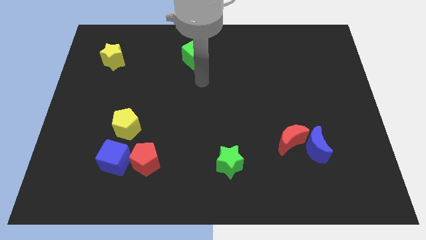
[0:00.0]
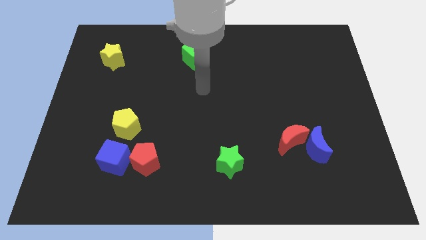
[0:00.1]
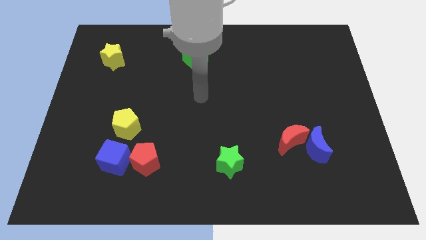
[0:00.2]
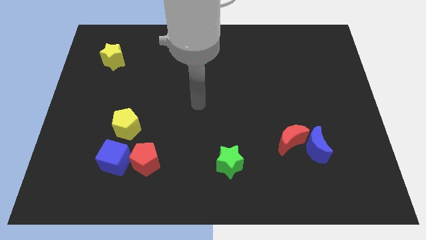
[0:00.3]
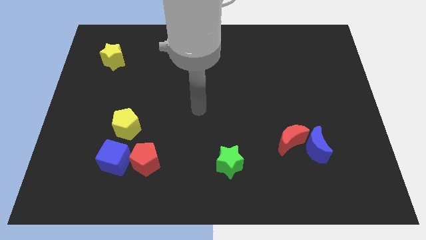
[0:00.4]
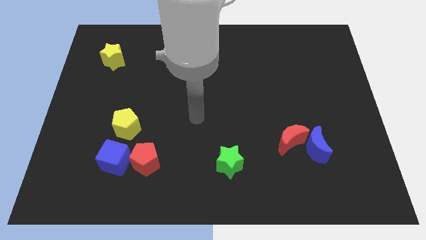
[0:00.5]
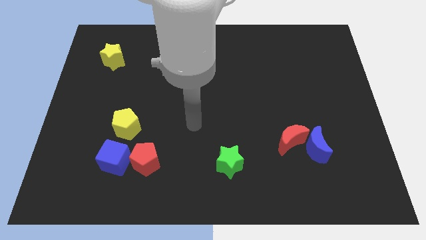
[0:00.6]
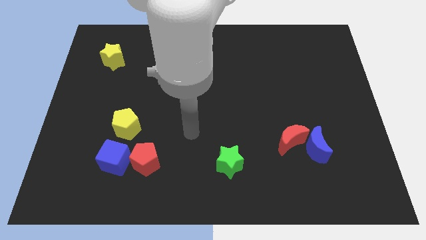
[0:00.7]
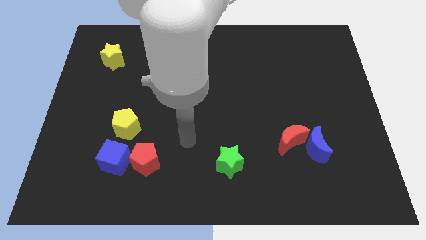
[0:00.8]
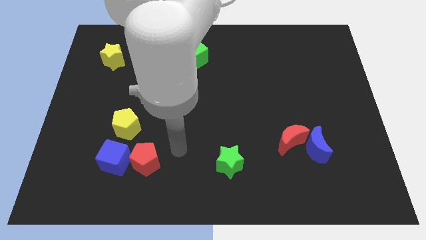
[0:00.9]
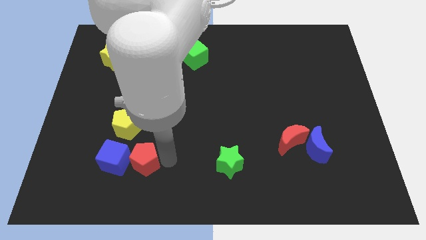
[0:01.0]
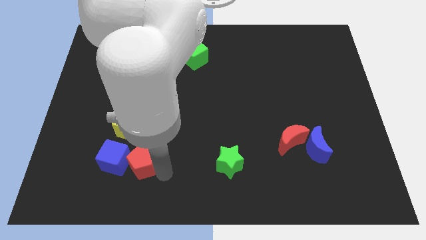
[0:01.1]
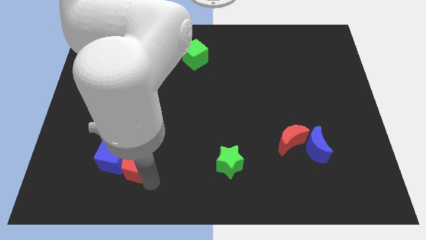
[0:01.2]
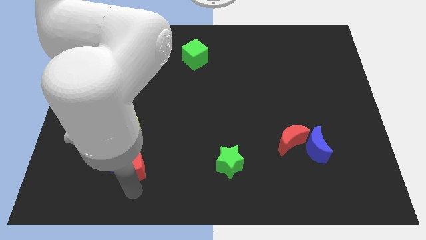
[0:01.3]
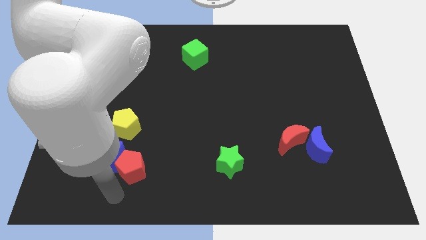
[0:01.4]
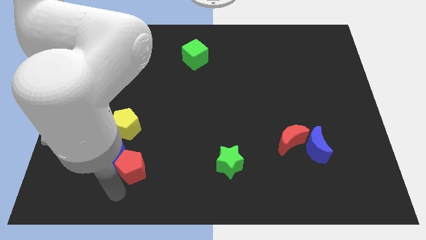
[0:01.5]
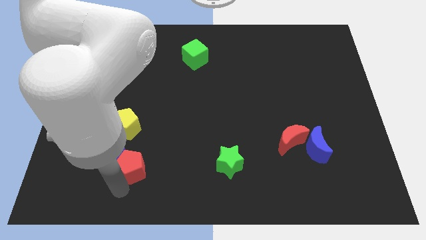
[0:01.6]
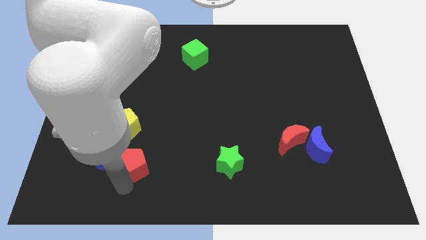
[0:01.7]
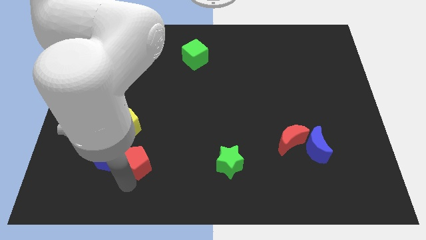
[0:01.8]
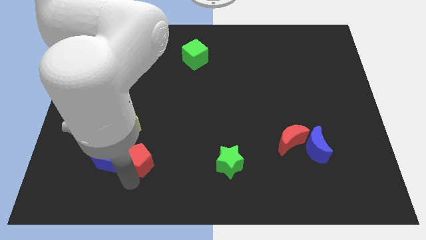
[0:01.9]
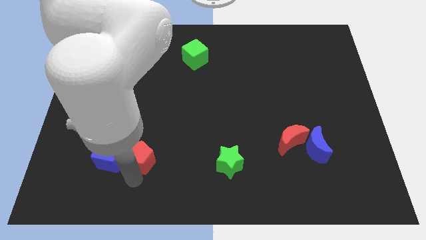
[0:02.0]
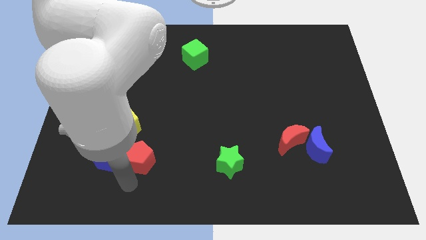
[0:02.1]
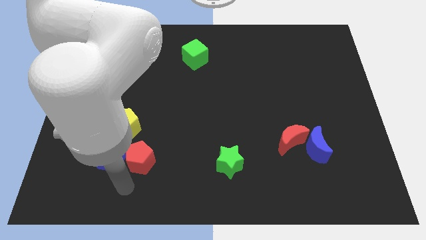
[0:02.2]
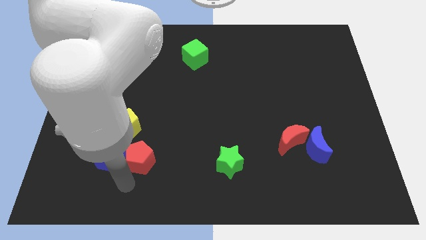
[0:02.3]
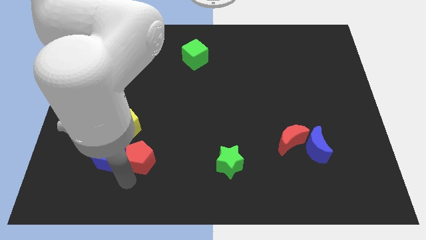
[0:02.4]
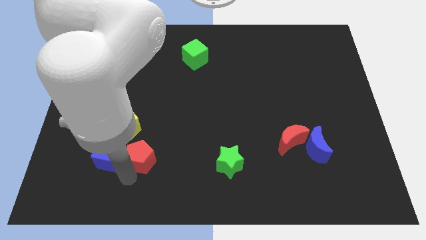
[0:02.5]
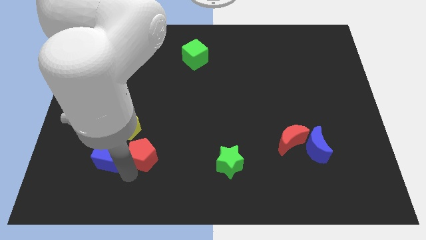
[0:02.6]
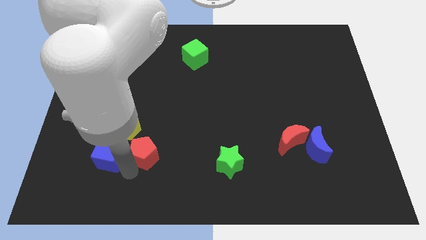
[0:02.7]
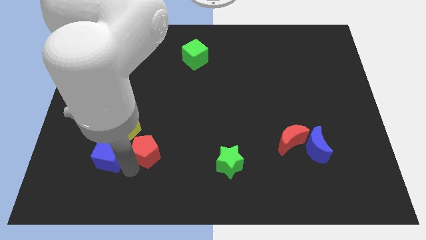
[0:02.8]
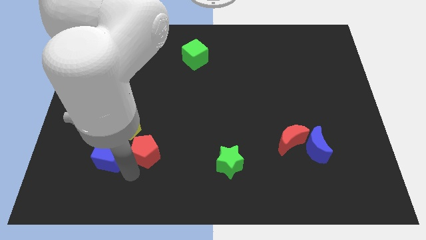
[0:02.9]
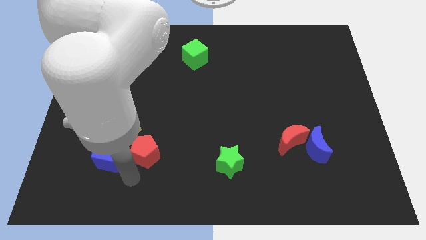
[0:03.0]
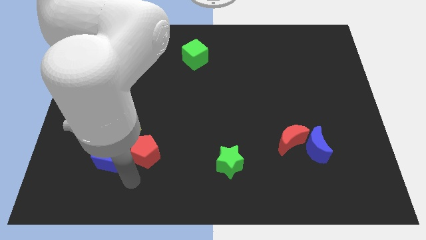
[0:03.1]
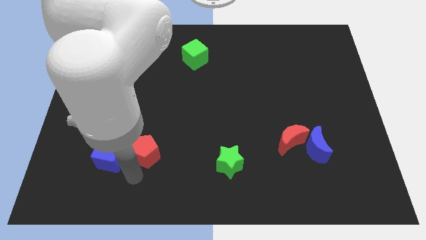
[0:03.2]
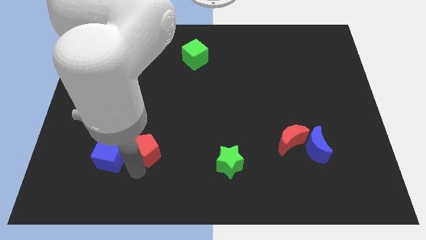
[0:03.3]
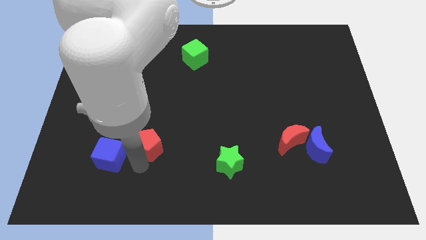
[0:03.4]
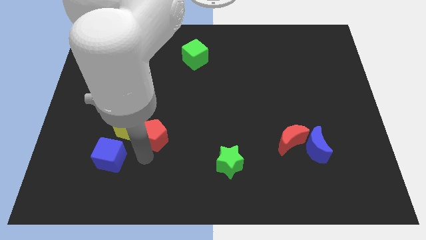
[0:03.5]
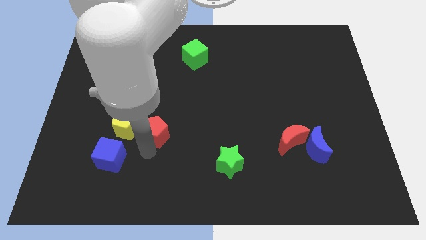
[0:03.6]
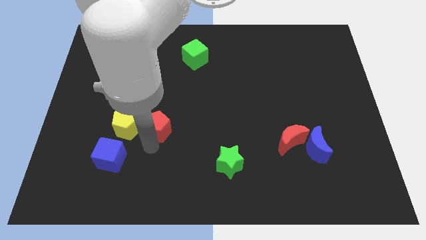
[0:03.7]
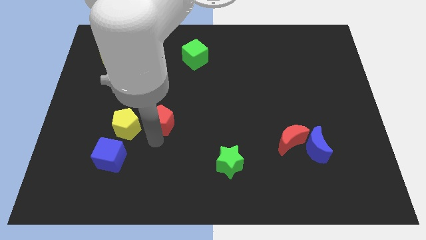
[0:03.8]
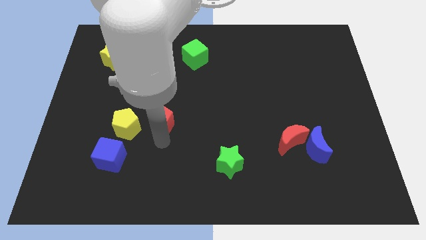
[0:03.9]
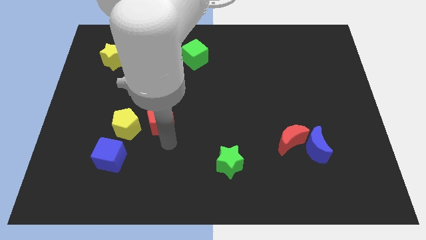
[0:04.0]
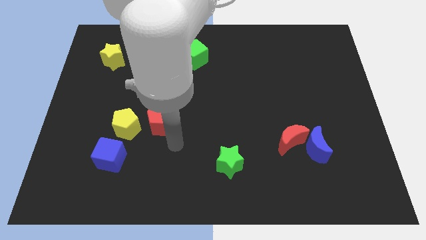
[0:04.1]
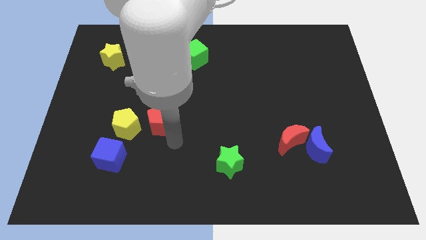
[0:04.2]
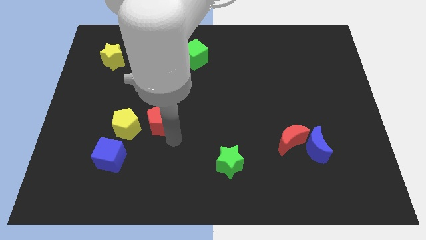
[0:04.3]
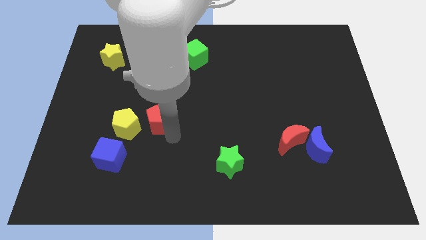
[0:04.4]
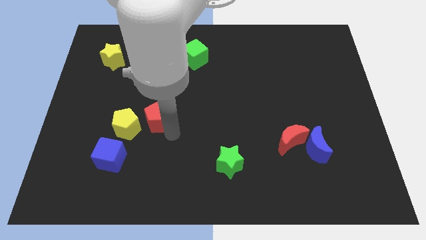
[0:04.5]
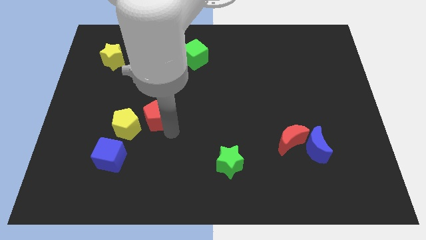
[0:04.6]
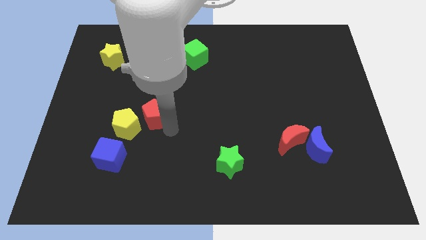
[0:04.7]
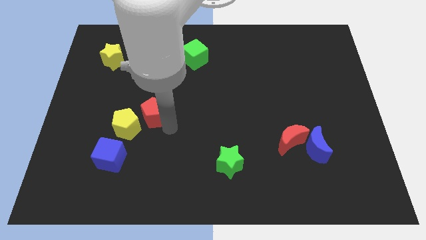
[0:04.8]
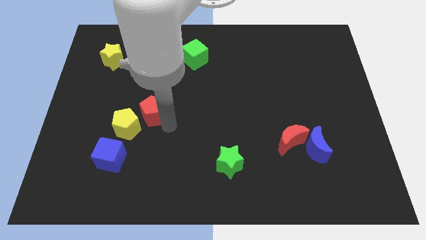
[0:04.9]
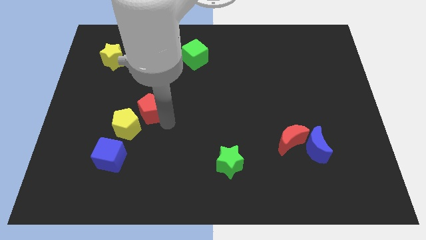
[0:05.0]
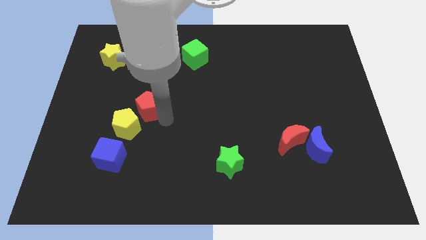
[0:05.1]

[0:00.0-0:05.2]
move the red pentagon above the yellow pentagon

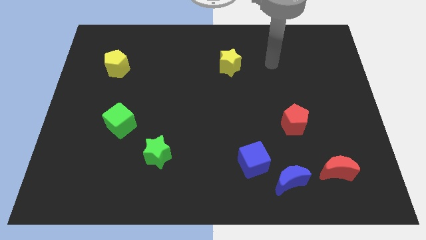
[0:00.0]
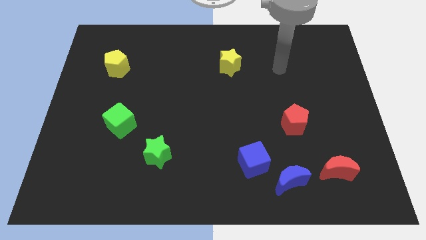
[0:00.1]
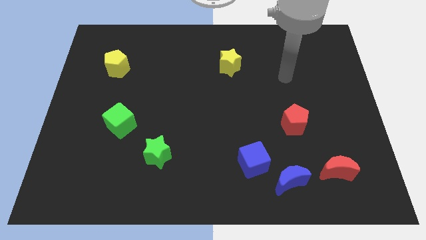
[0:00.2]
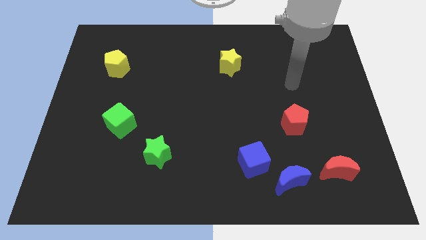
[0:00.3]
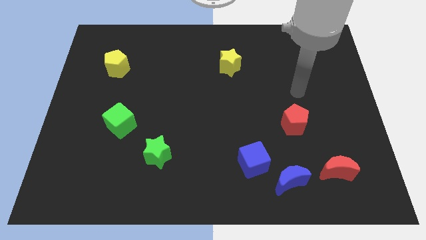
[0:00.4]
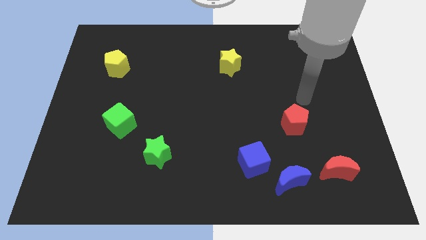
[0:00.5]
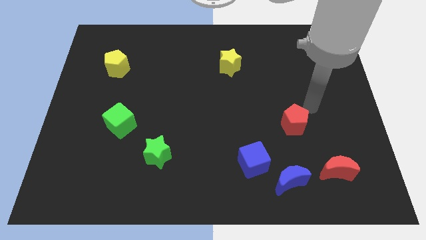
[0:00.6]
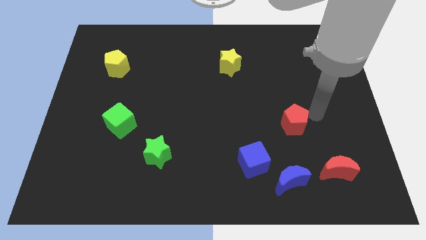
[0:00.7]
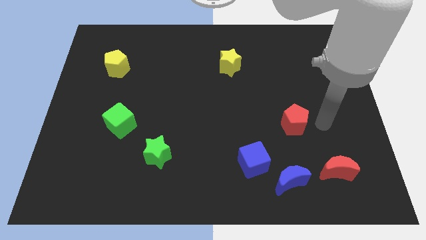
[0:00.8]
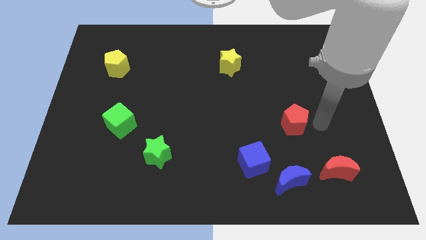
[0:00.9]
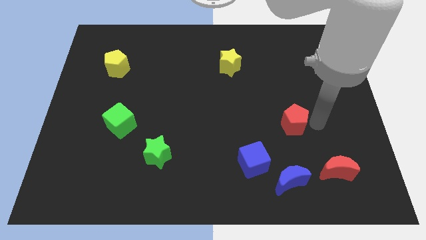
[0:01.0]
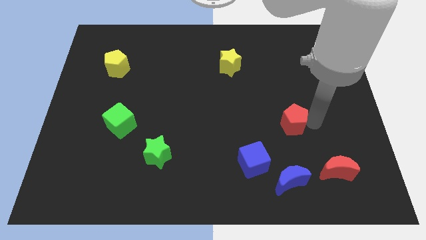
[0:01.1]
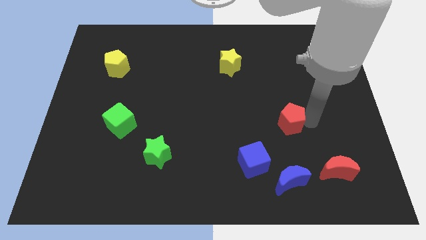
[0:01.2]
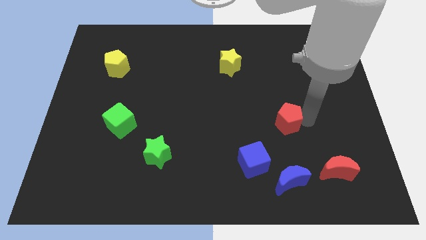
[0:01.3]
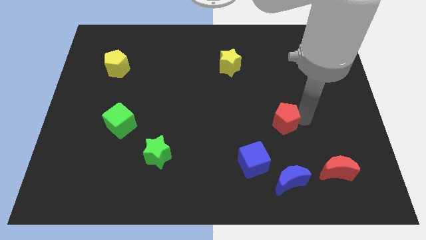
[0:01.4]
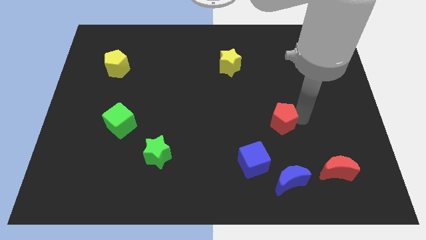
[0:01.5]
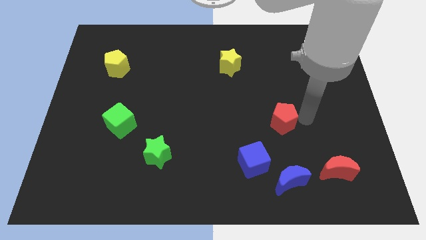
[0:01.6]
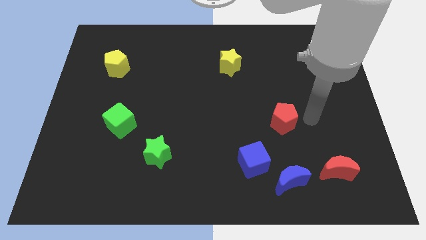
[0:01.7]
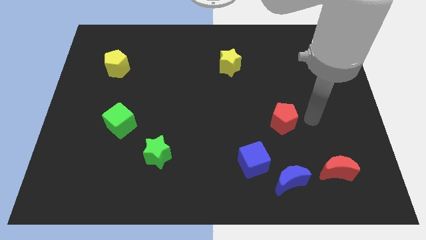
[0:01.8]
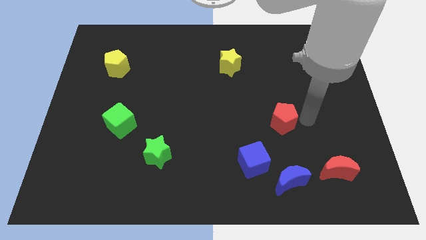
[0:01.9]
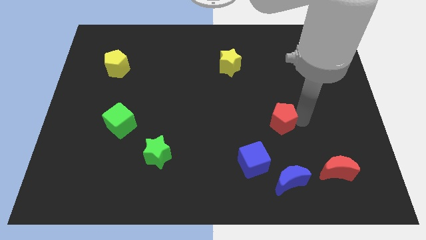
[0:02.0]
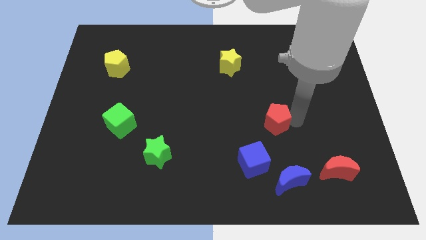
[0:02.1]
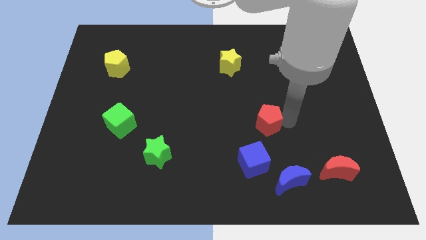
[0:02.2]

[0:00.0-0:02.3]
put the red pentagon to the top of the blue cube
